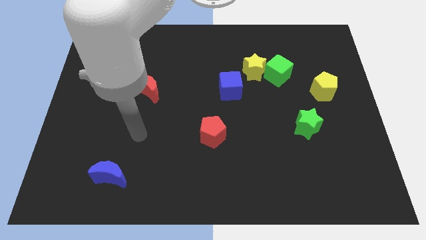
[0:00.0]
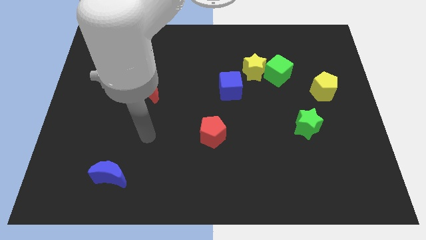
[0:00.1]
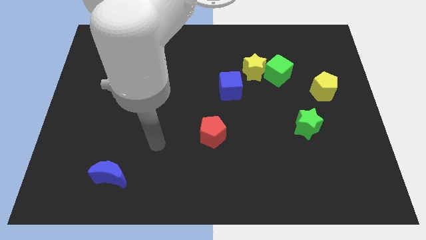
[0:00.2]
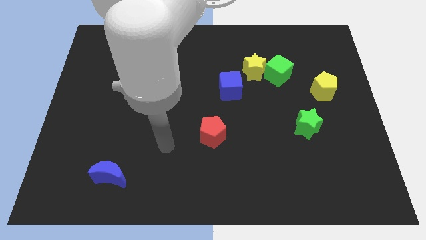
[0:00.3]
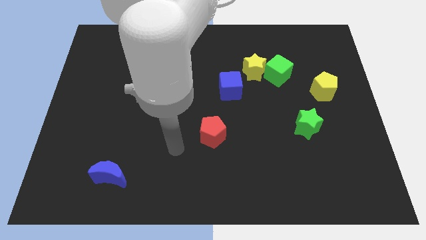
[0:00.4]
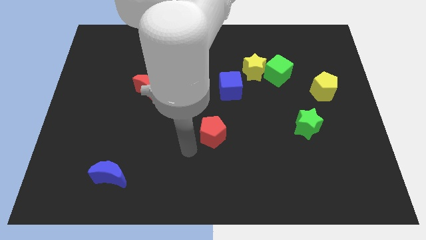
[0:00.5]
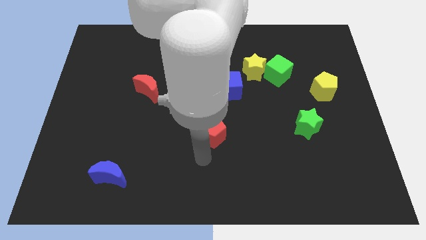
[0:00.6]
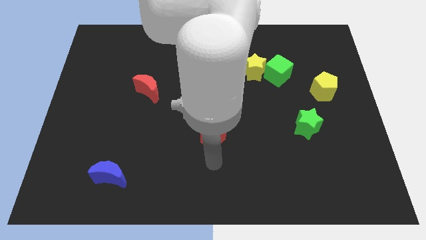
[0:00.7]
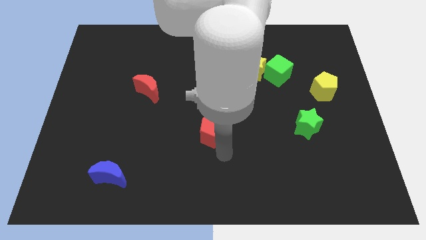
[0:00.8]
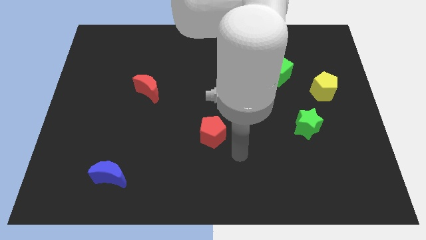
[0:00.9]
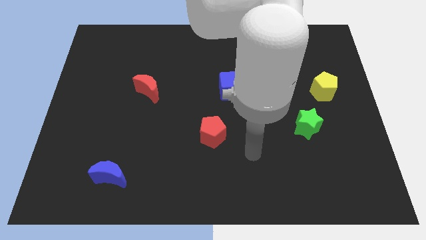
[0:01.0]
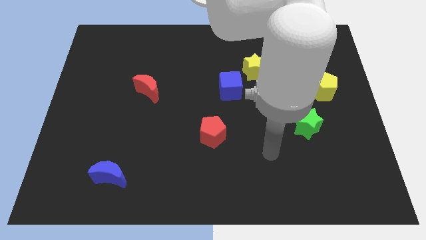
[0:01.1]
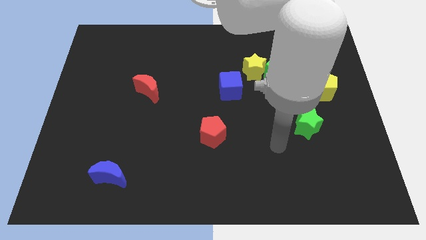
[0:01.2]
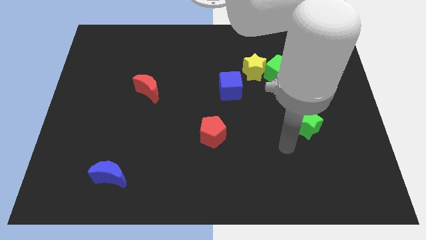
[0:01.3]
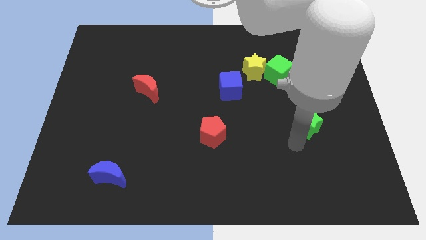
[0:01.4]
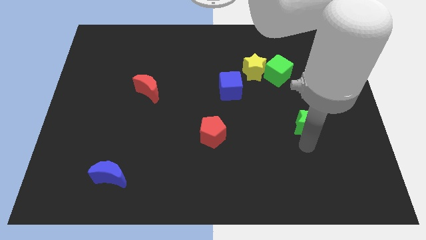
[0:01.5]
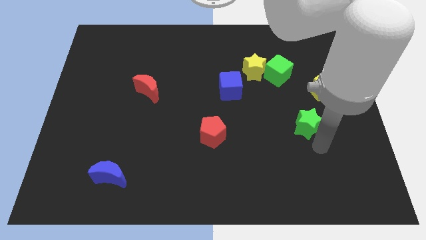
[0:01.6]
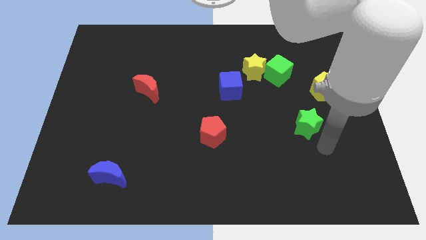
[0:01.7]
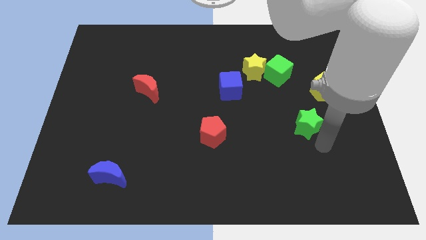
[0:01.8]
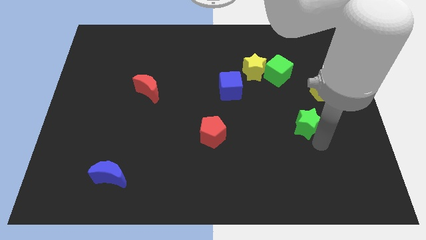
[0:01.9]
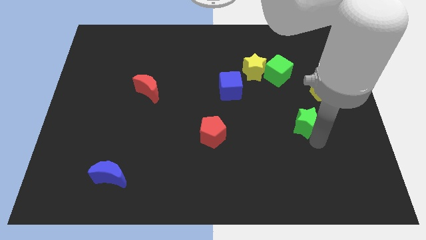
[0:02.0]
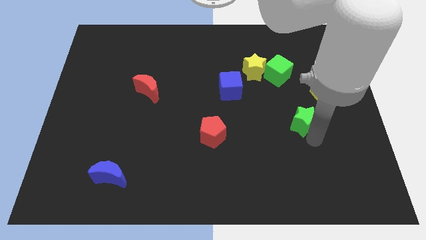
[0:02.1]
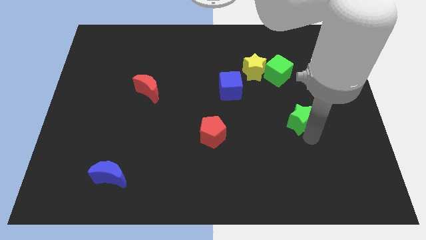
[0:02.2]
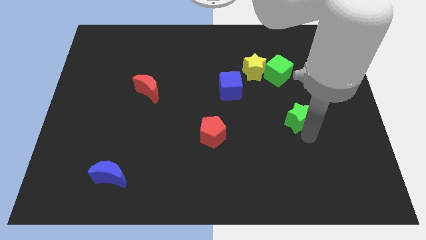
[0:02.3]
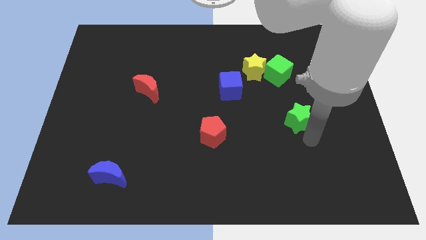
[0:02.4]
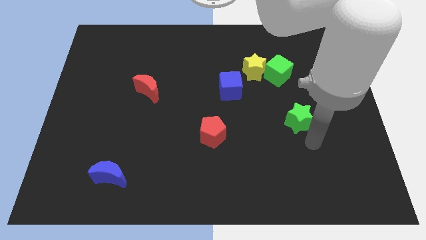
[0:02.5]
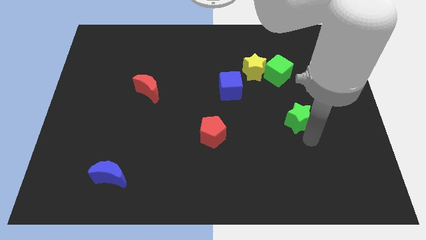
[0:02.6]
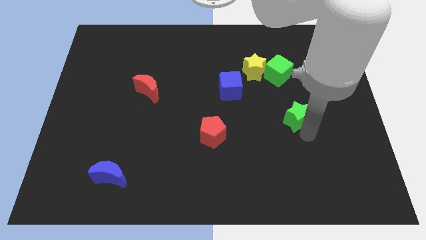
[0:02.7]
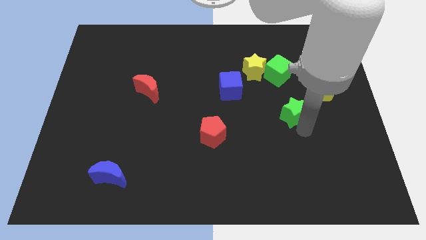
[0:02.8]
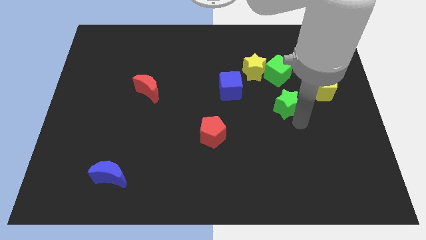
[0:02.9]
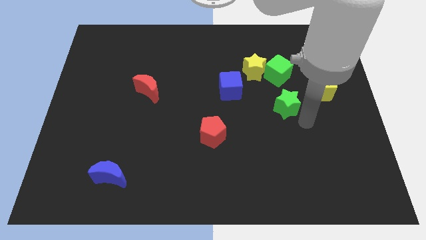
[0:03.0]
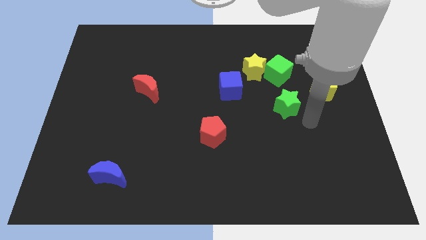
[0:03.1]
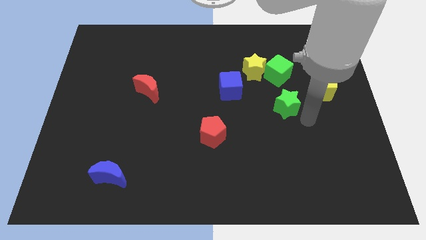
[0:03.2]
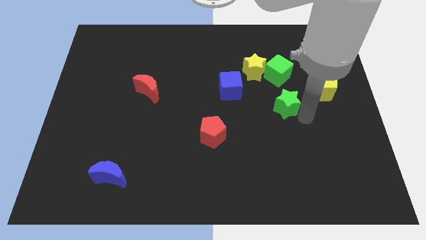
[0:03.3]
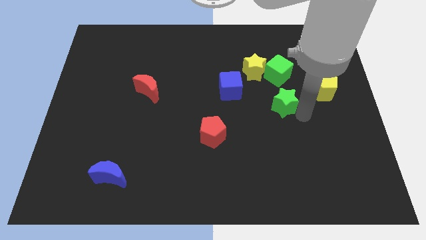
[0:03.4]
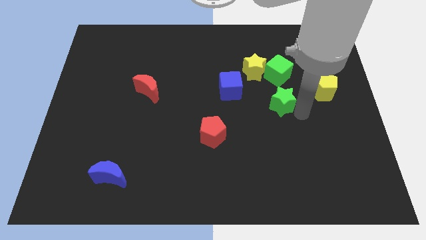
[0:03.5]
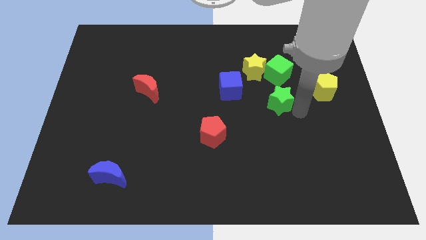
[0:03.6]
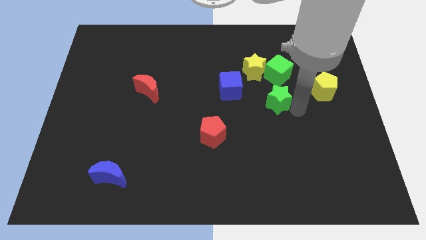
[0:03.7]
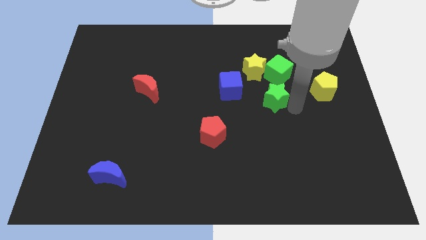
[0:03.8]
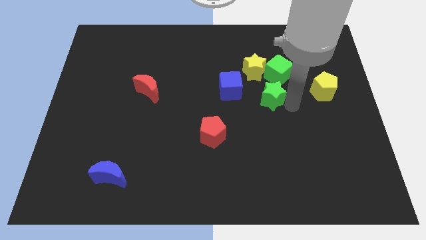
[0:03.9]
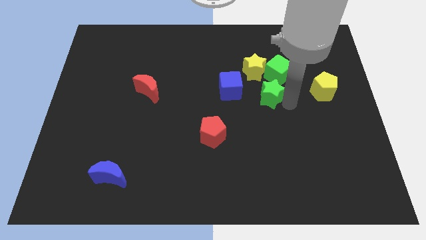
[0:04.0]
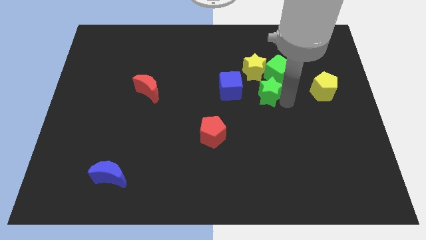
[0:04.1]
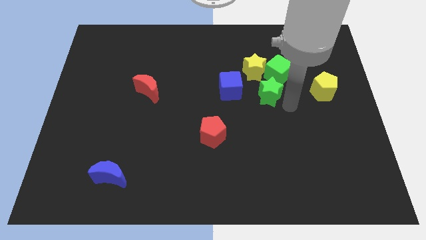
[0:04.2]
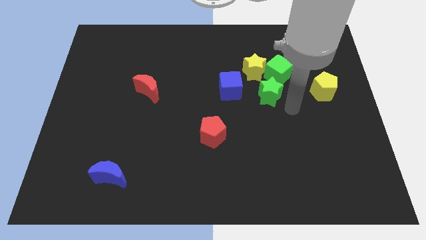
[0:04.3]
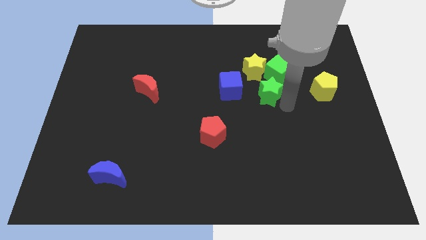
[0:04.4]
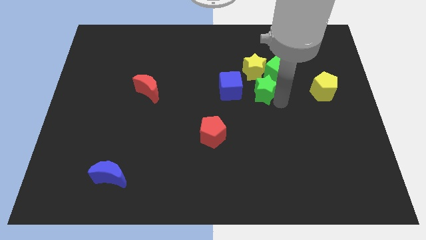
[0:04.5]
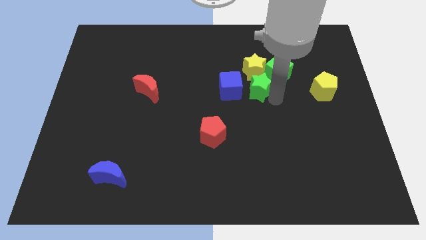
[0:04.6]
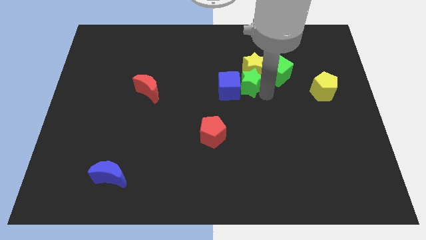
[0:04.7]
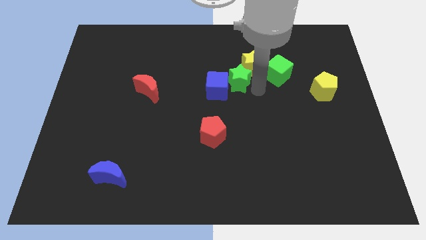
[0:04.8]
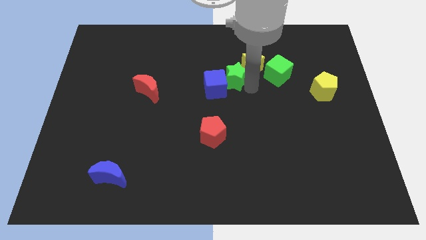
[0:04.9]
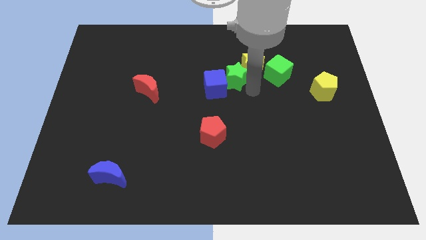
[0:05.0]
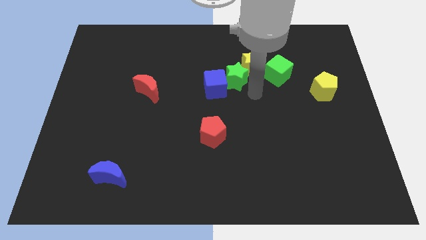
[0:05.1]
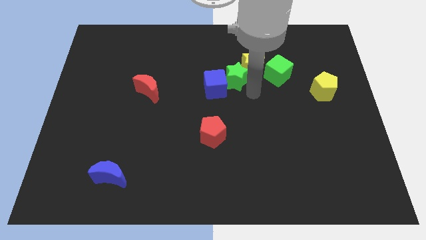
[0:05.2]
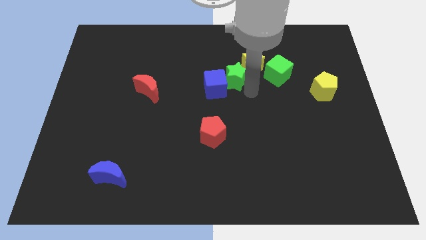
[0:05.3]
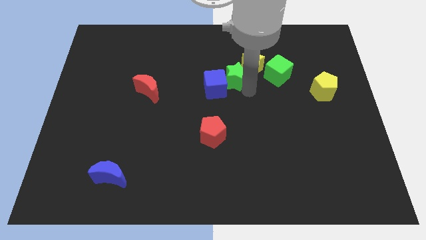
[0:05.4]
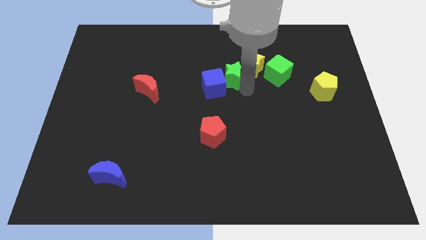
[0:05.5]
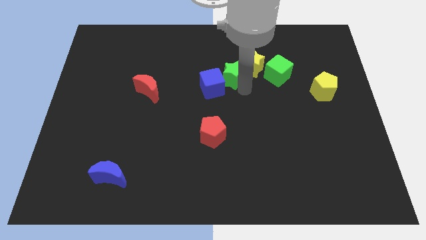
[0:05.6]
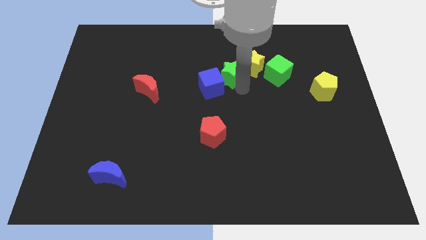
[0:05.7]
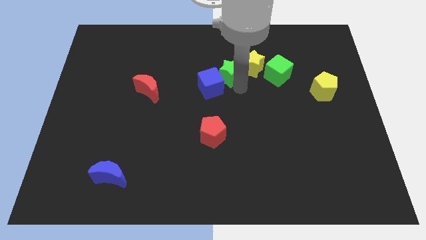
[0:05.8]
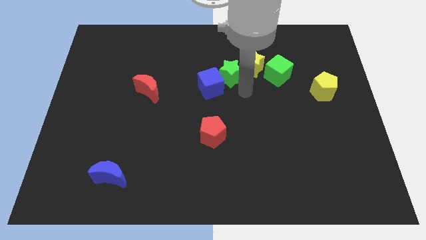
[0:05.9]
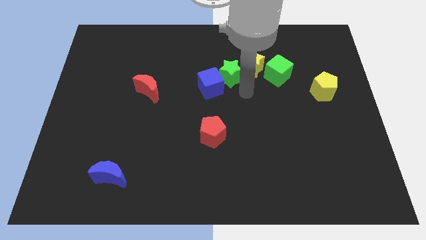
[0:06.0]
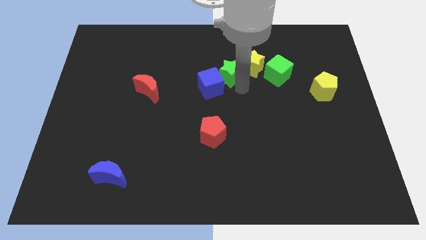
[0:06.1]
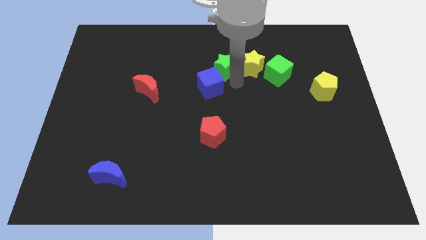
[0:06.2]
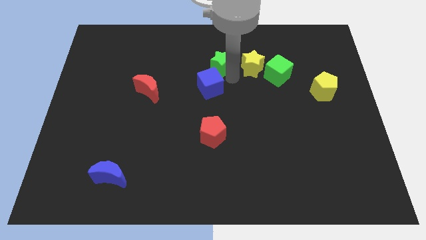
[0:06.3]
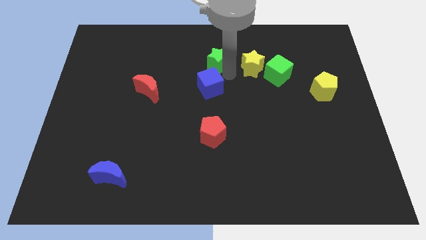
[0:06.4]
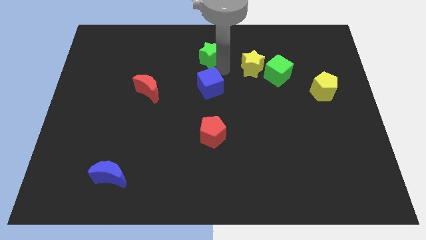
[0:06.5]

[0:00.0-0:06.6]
move the green star to the top
